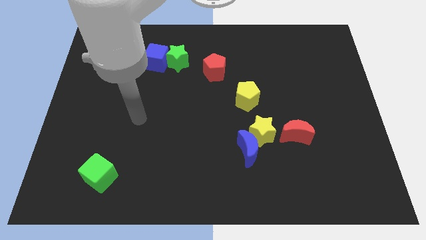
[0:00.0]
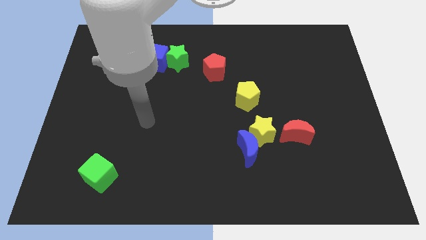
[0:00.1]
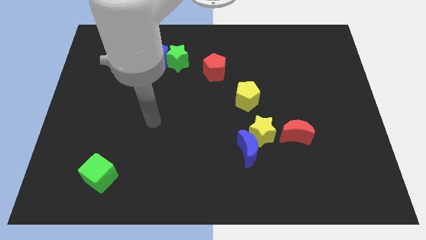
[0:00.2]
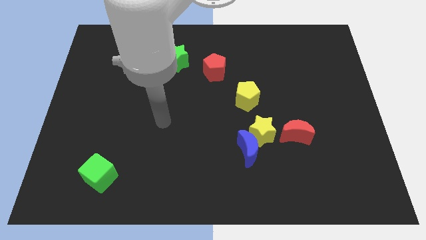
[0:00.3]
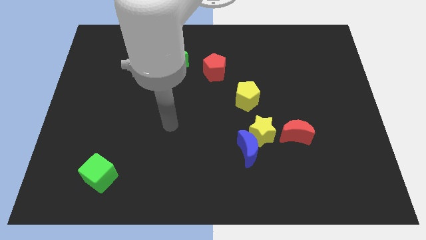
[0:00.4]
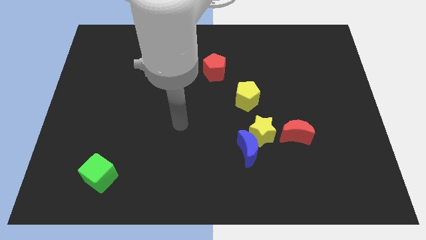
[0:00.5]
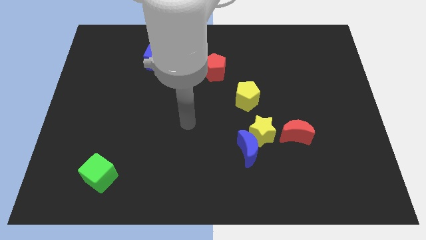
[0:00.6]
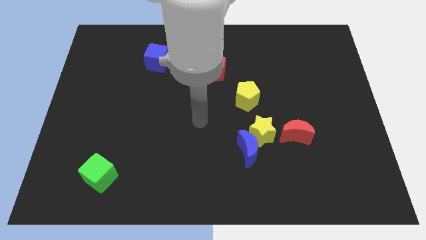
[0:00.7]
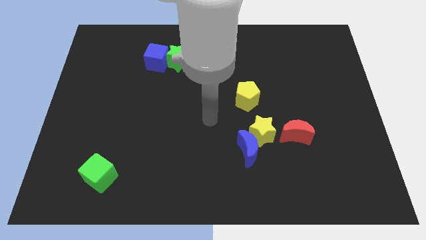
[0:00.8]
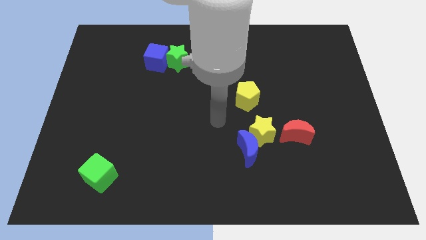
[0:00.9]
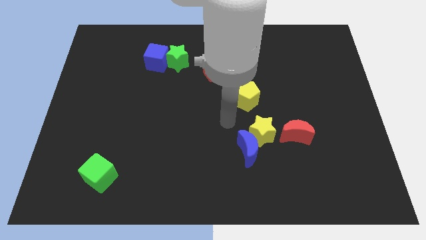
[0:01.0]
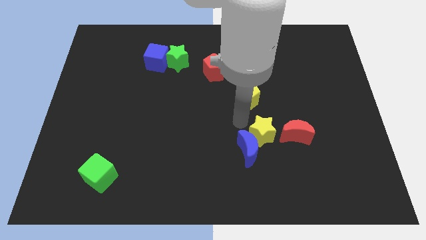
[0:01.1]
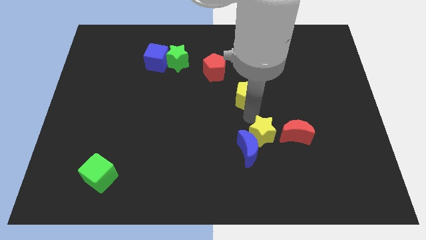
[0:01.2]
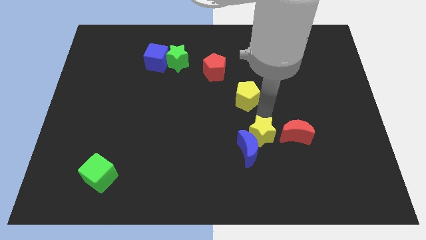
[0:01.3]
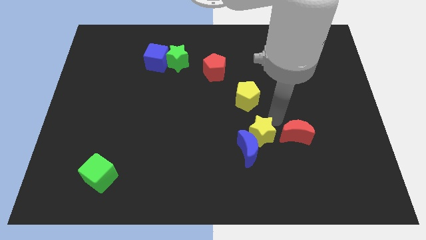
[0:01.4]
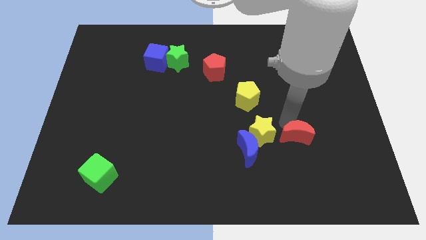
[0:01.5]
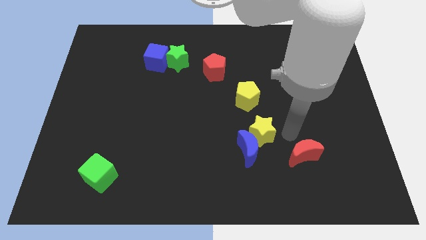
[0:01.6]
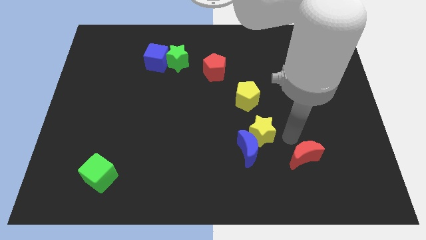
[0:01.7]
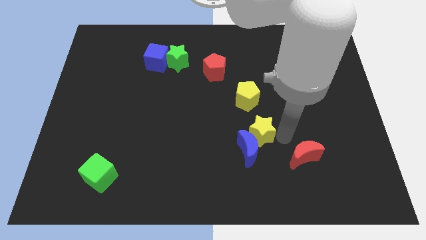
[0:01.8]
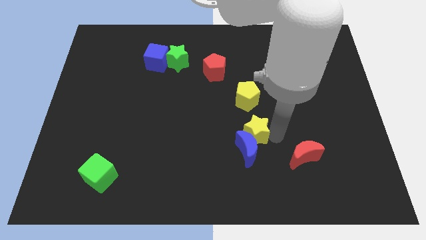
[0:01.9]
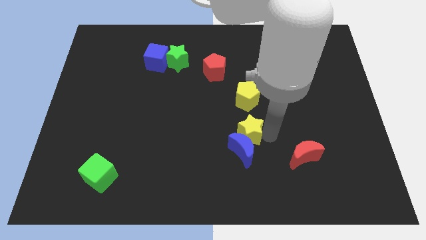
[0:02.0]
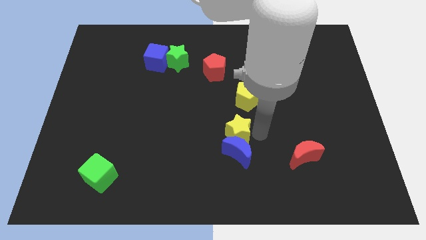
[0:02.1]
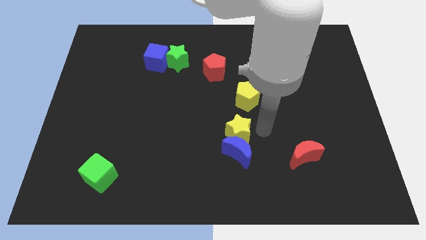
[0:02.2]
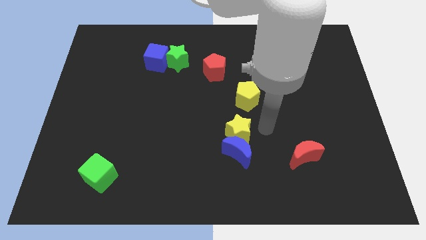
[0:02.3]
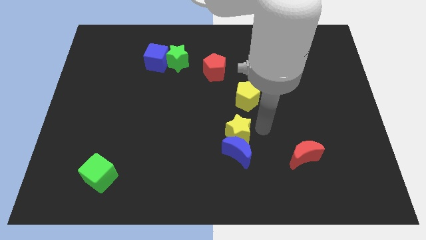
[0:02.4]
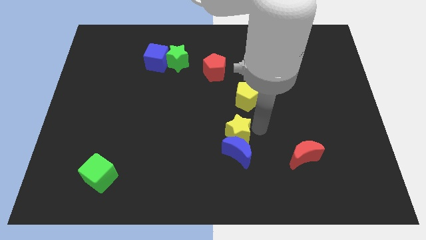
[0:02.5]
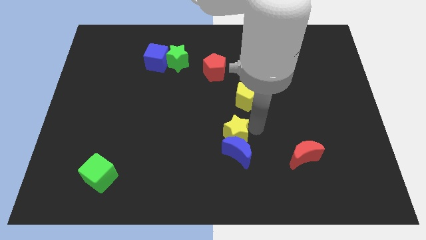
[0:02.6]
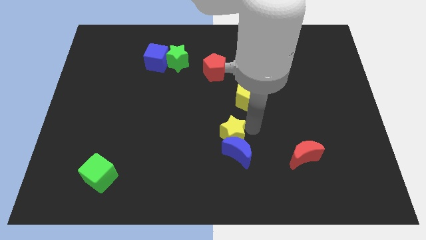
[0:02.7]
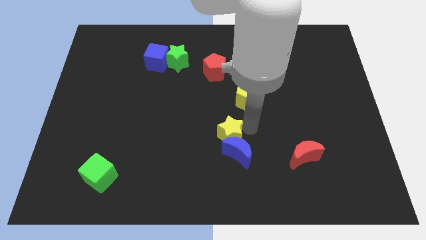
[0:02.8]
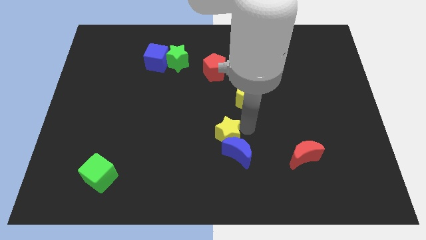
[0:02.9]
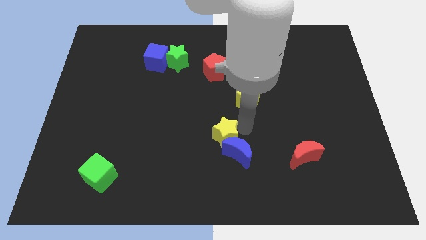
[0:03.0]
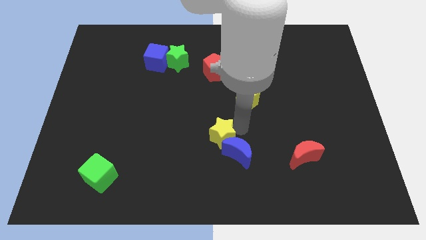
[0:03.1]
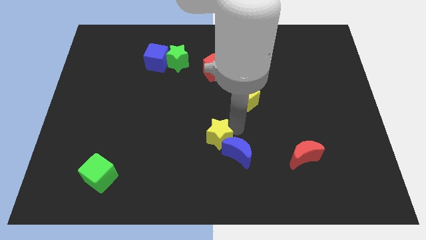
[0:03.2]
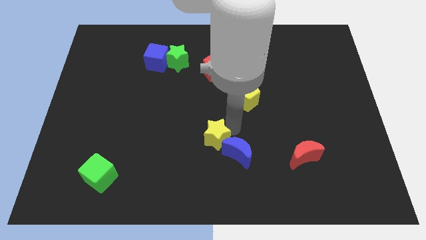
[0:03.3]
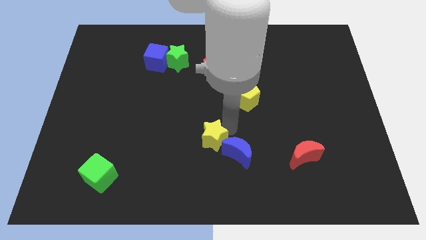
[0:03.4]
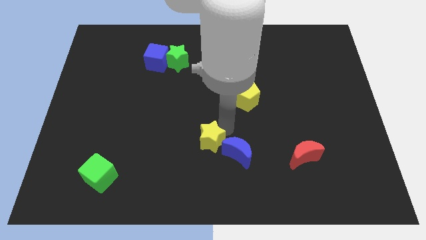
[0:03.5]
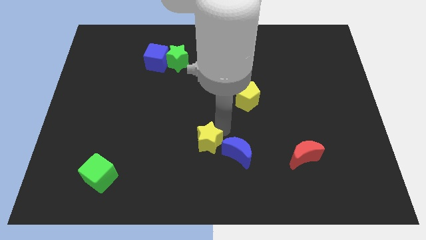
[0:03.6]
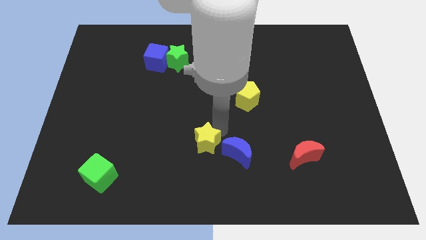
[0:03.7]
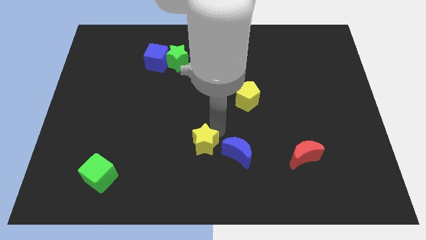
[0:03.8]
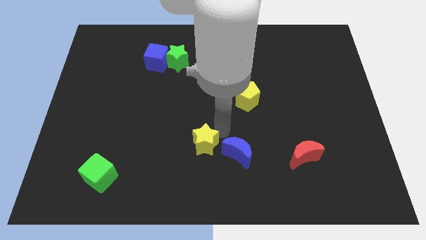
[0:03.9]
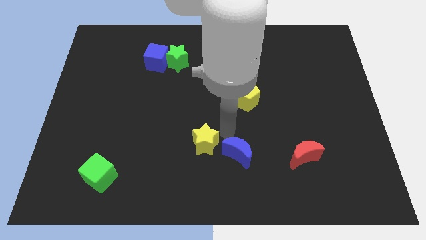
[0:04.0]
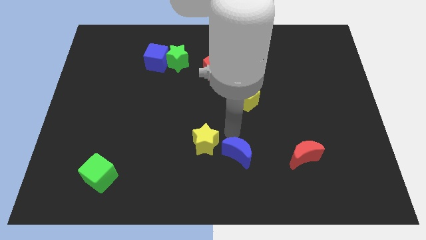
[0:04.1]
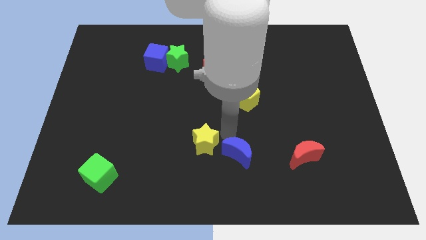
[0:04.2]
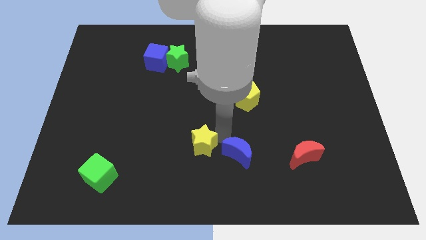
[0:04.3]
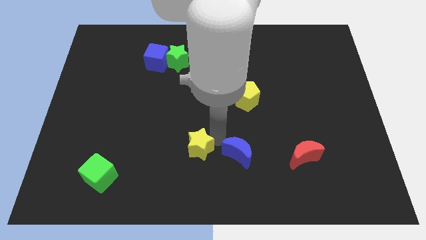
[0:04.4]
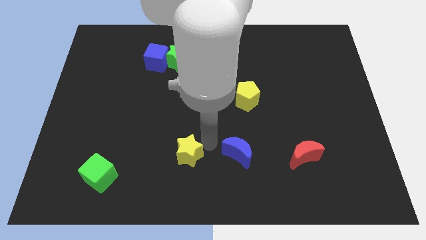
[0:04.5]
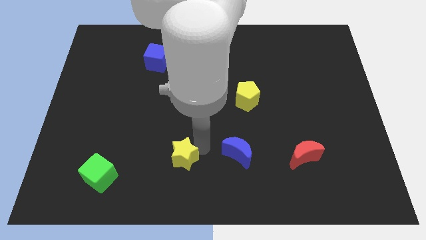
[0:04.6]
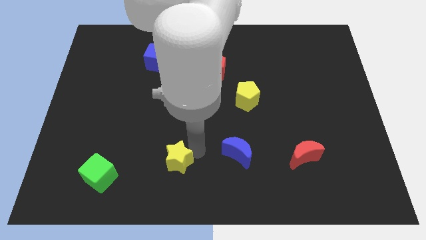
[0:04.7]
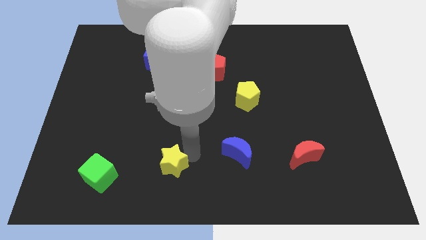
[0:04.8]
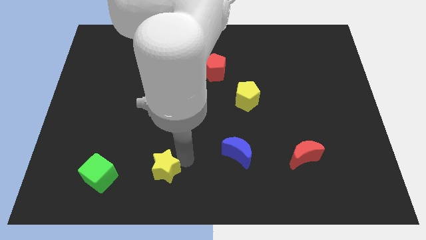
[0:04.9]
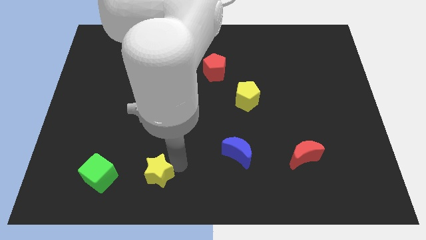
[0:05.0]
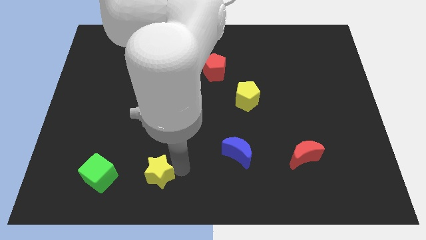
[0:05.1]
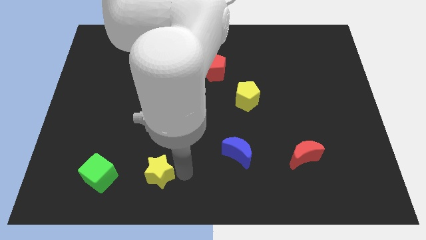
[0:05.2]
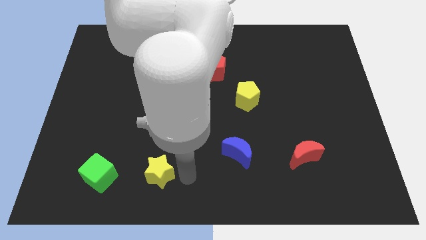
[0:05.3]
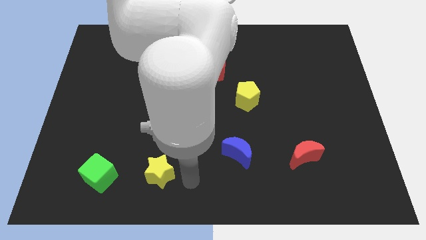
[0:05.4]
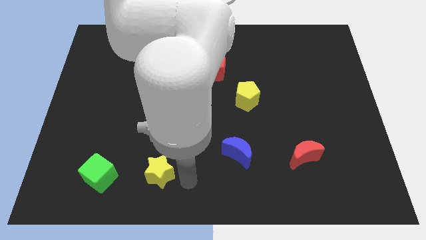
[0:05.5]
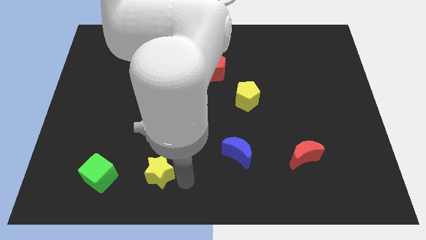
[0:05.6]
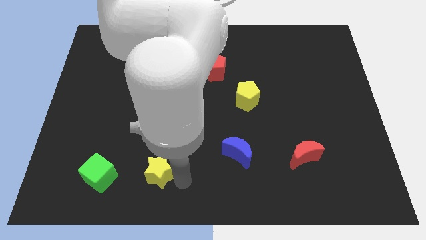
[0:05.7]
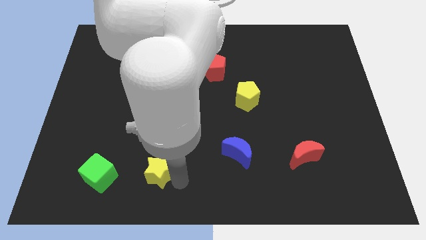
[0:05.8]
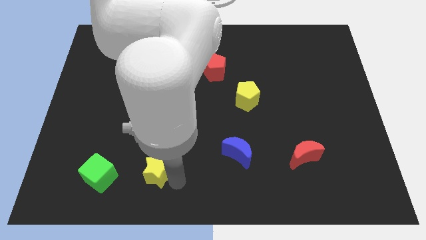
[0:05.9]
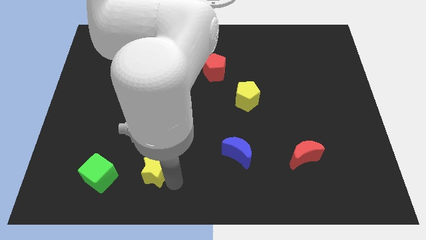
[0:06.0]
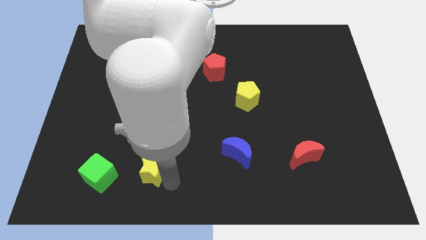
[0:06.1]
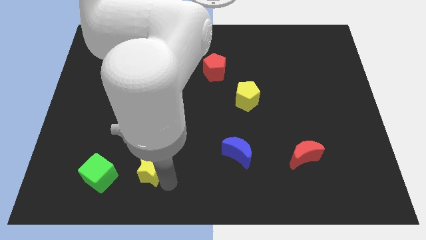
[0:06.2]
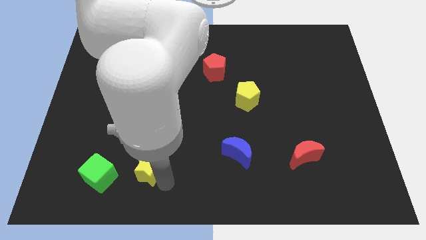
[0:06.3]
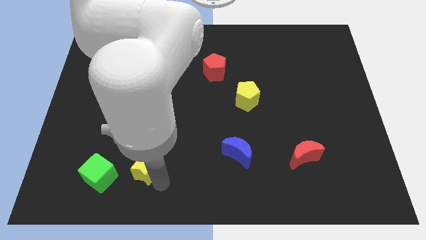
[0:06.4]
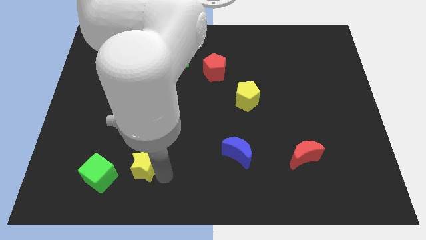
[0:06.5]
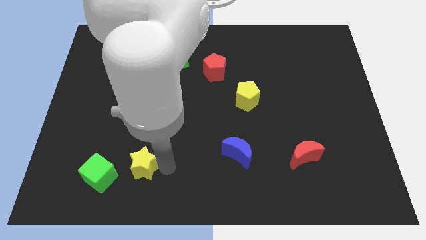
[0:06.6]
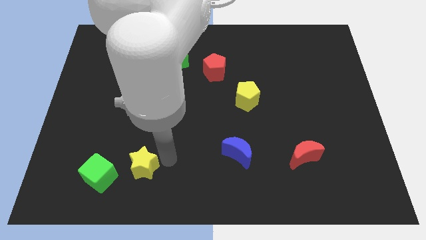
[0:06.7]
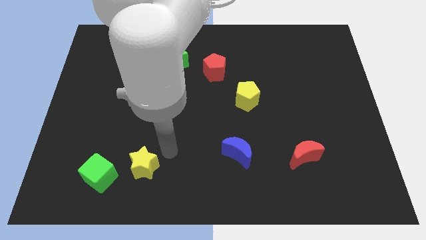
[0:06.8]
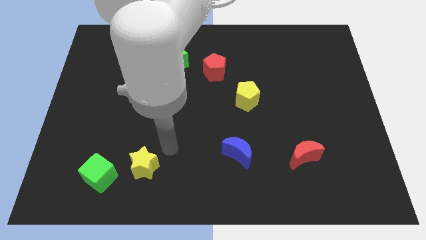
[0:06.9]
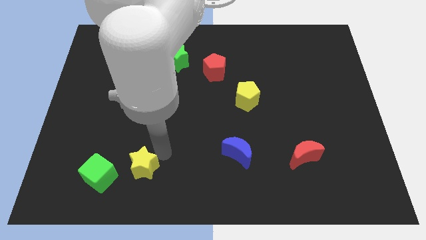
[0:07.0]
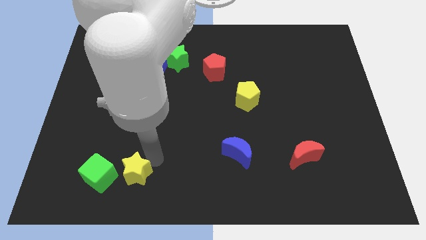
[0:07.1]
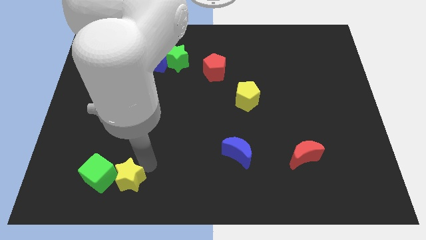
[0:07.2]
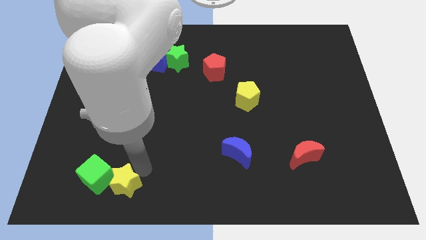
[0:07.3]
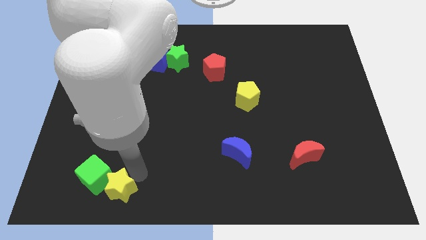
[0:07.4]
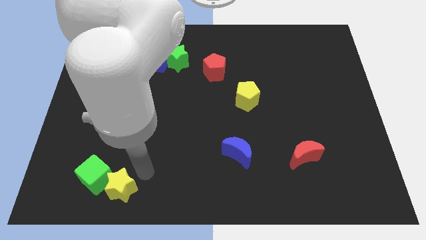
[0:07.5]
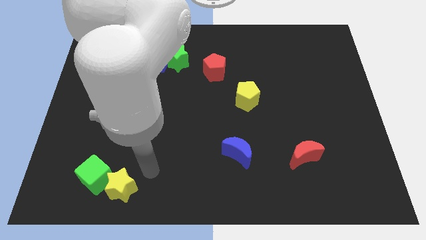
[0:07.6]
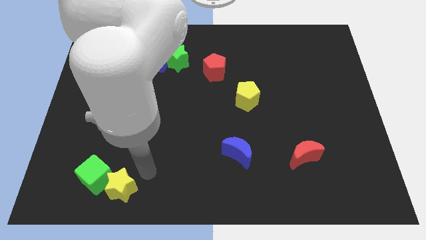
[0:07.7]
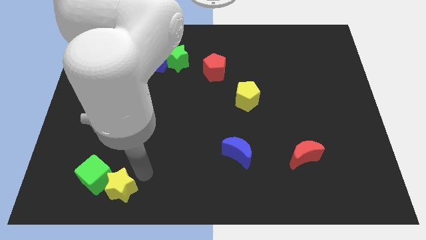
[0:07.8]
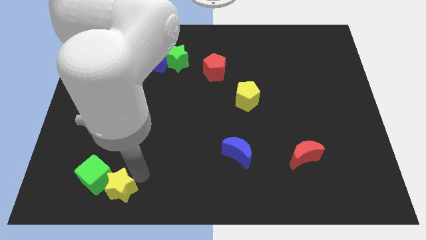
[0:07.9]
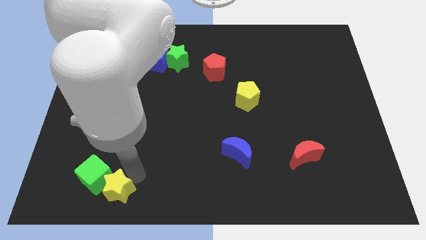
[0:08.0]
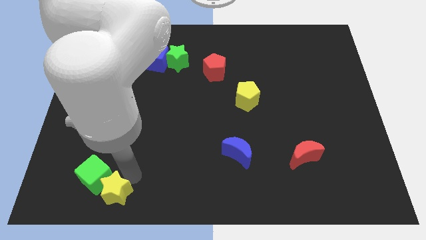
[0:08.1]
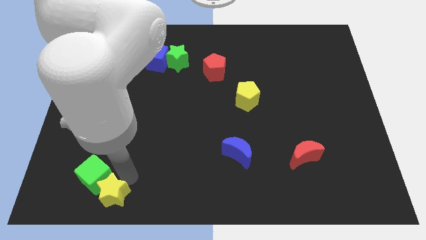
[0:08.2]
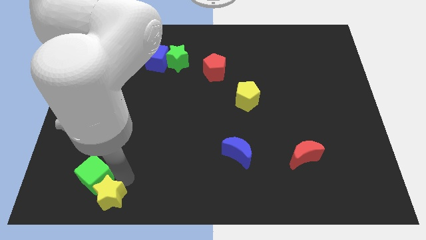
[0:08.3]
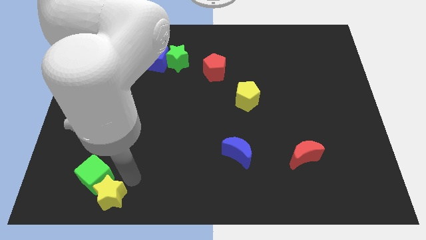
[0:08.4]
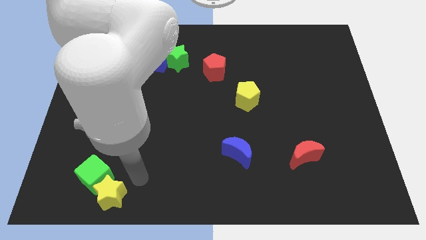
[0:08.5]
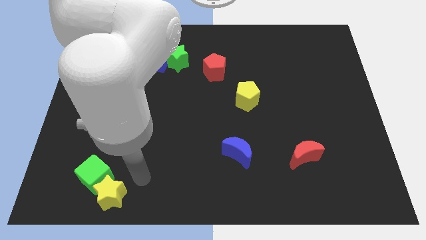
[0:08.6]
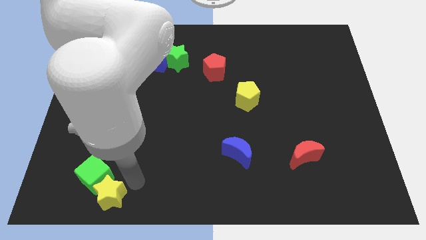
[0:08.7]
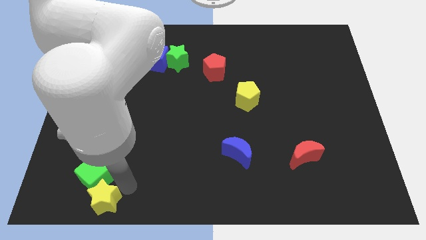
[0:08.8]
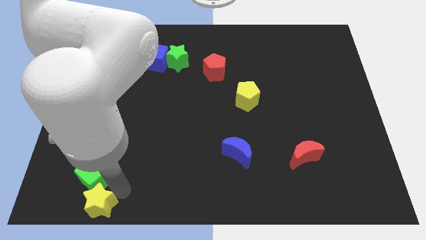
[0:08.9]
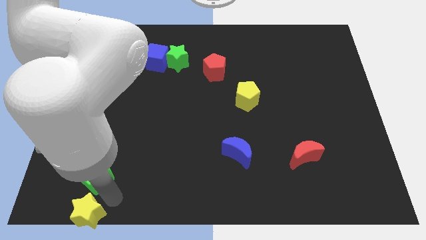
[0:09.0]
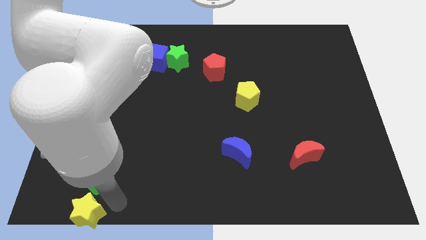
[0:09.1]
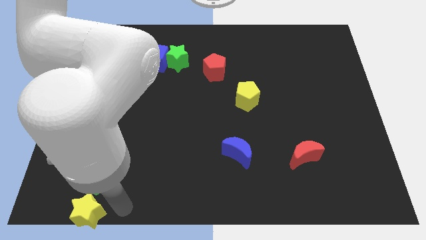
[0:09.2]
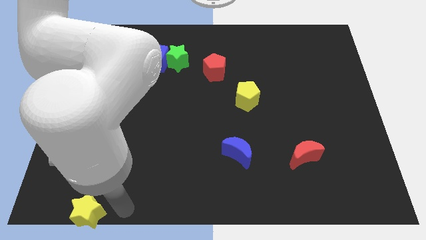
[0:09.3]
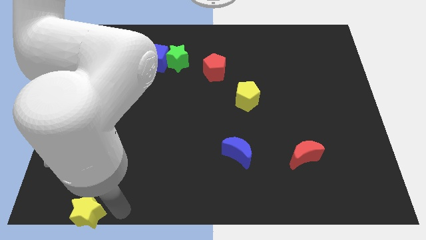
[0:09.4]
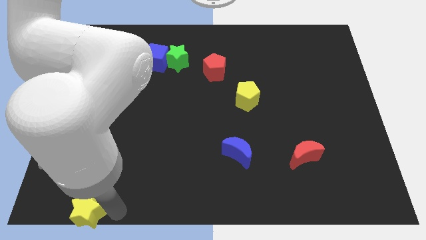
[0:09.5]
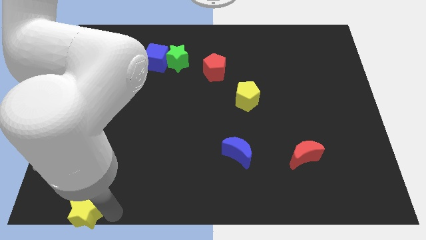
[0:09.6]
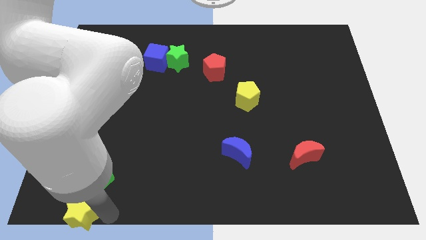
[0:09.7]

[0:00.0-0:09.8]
slide the yellow star to the lower left corner
